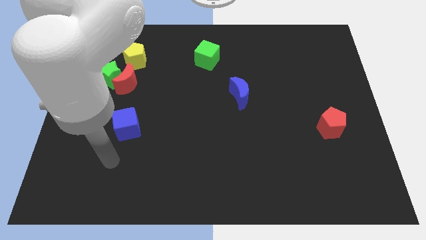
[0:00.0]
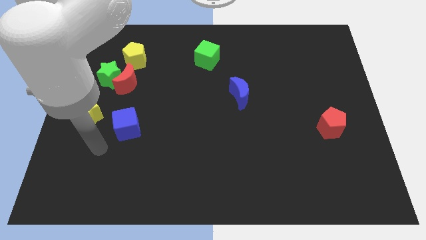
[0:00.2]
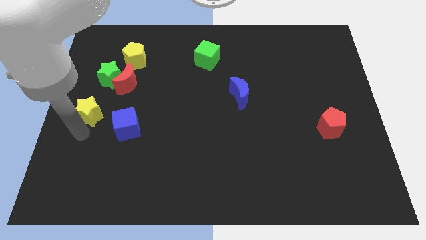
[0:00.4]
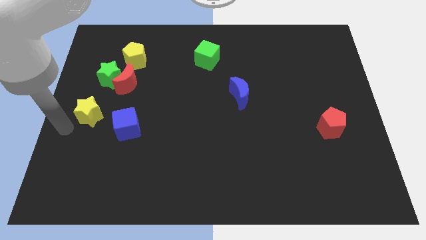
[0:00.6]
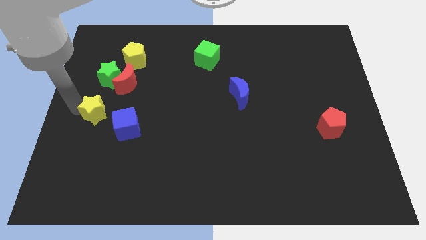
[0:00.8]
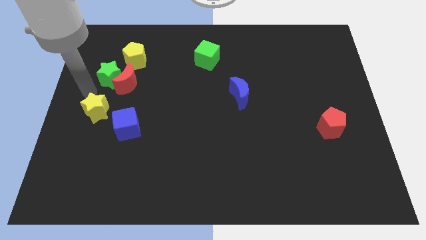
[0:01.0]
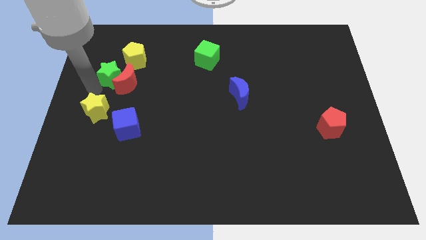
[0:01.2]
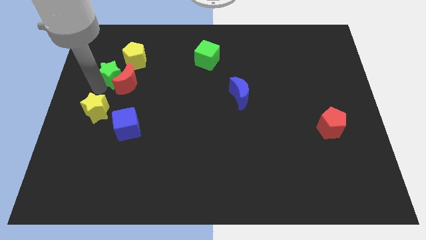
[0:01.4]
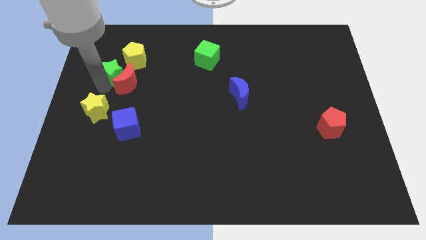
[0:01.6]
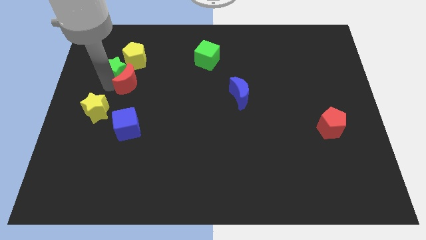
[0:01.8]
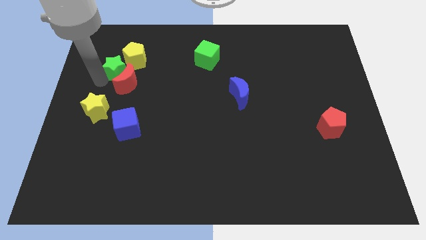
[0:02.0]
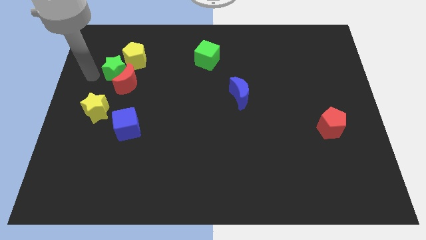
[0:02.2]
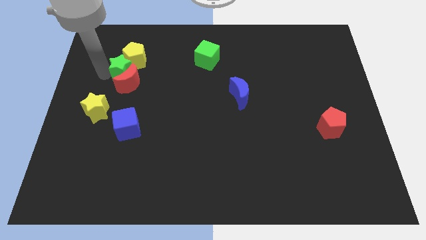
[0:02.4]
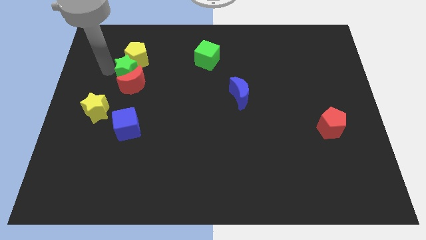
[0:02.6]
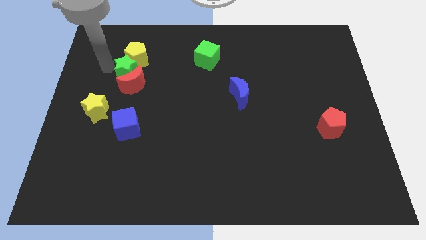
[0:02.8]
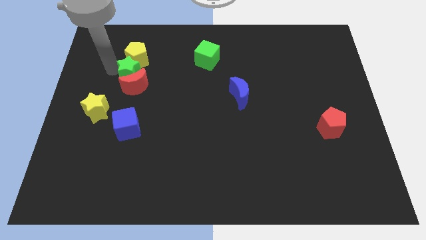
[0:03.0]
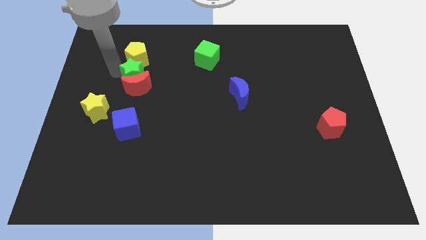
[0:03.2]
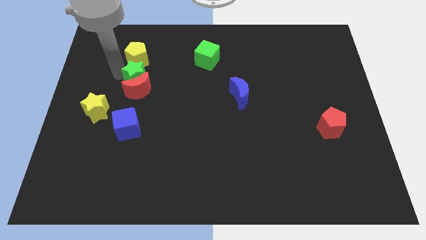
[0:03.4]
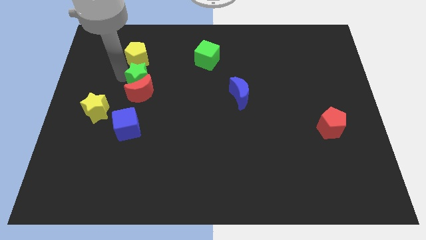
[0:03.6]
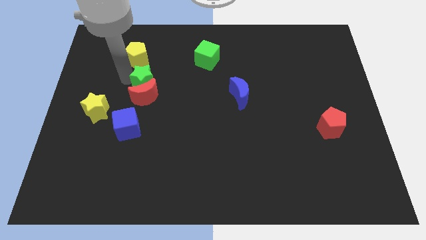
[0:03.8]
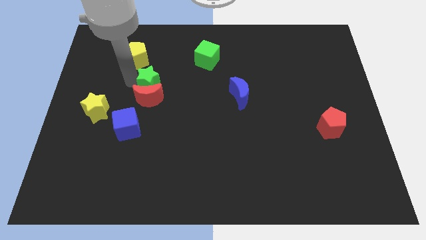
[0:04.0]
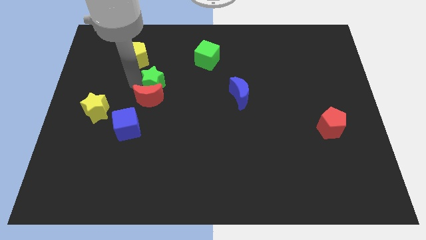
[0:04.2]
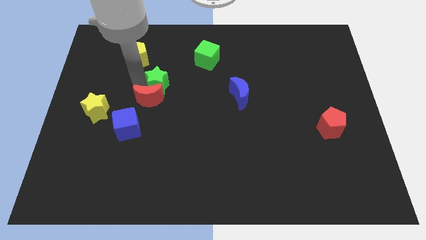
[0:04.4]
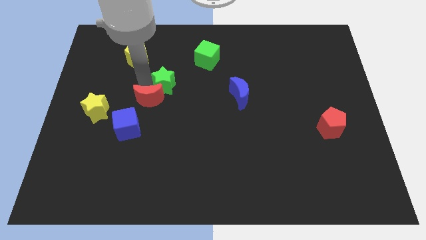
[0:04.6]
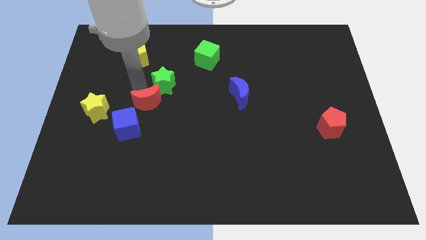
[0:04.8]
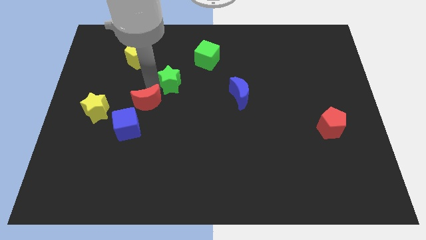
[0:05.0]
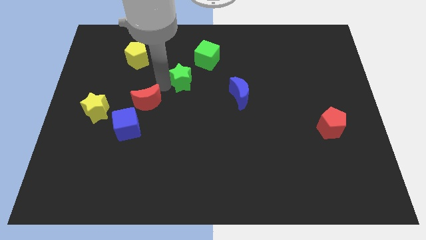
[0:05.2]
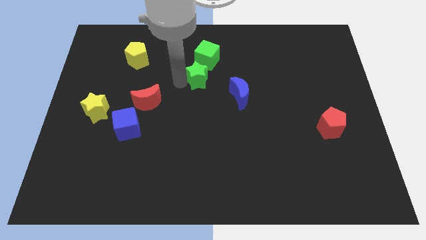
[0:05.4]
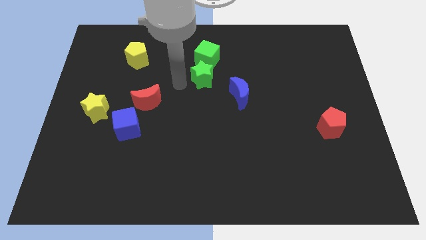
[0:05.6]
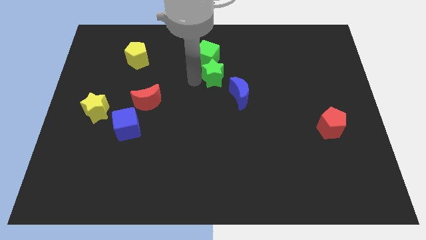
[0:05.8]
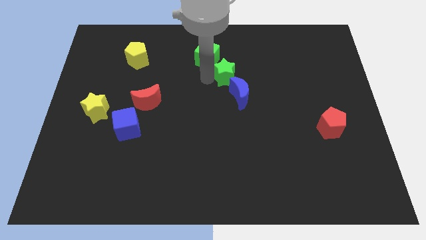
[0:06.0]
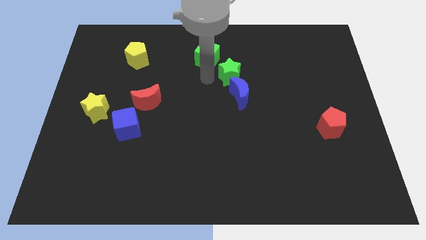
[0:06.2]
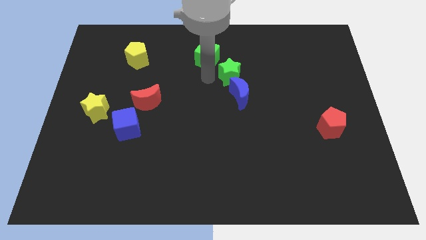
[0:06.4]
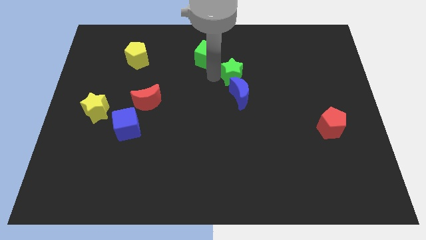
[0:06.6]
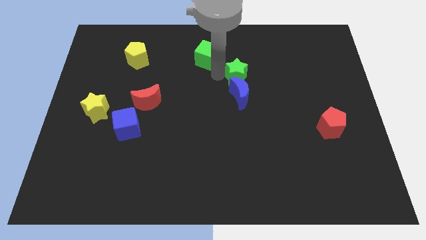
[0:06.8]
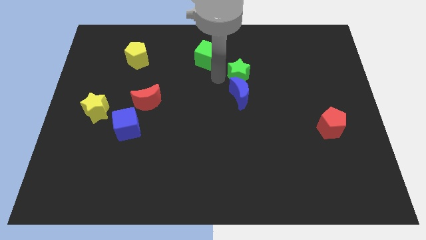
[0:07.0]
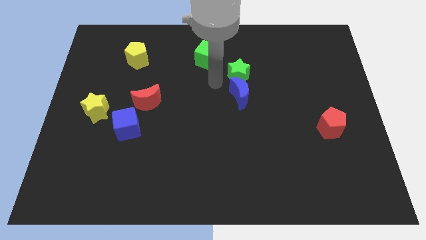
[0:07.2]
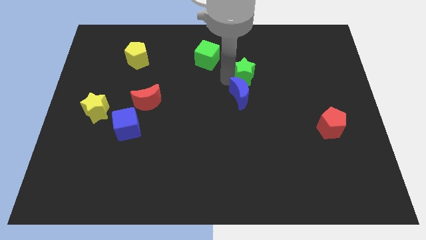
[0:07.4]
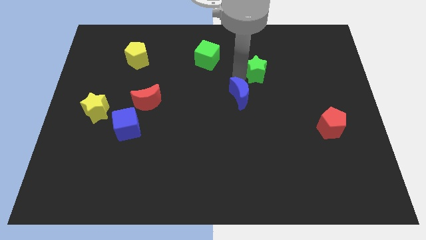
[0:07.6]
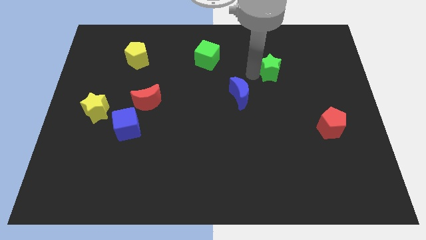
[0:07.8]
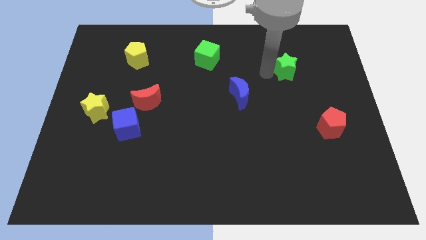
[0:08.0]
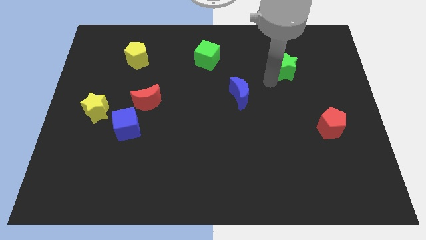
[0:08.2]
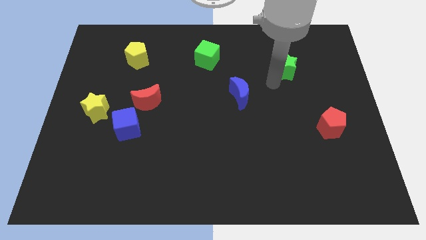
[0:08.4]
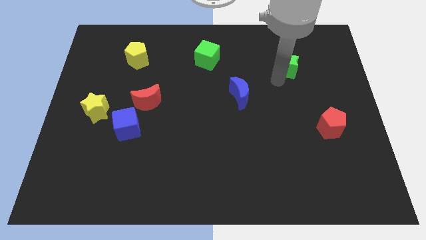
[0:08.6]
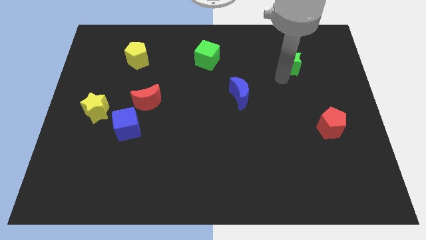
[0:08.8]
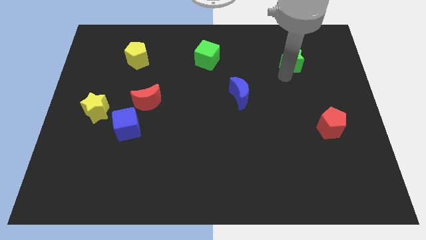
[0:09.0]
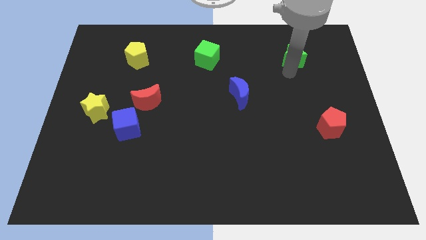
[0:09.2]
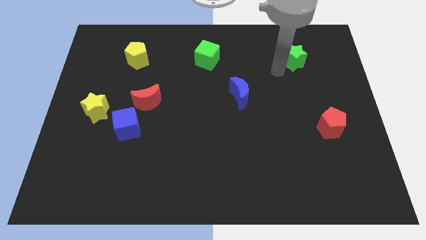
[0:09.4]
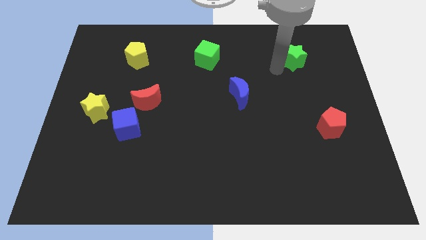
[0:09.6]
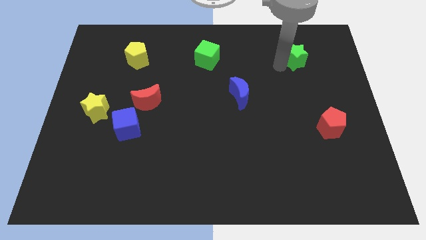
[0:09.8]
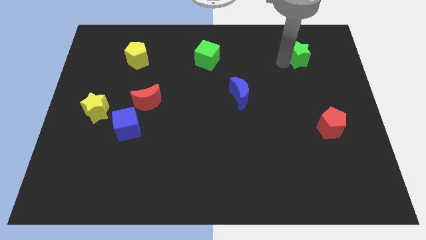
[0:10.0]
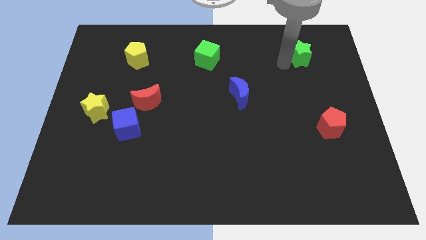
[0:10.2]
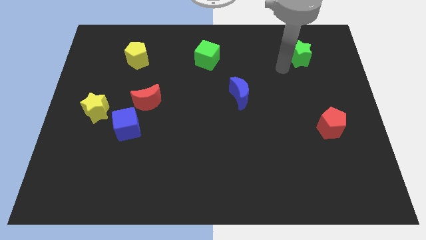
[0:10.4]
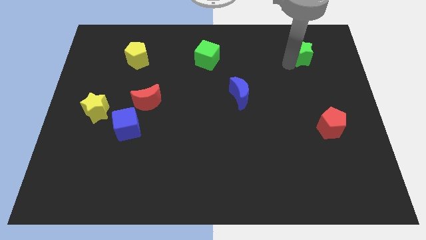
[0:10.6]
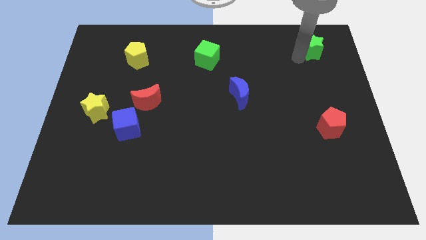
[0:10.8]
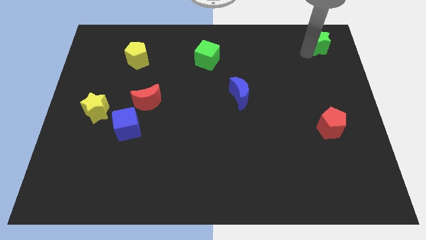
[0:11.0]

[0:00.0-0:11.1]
put the green star to the top right

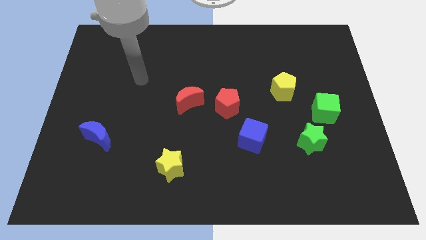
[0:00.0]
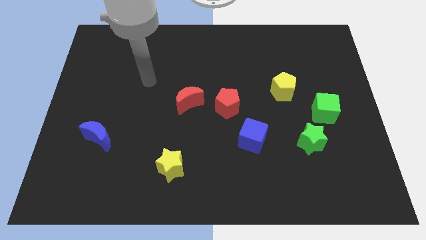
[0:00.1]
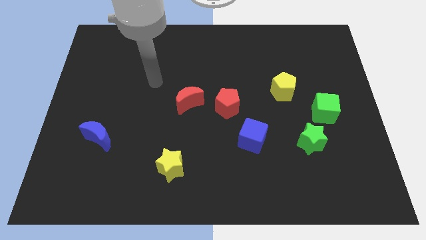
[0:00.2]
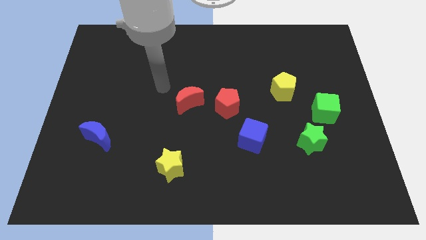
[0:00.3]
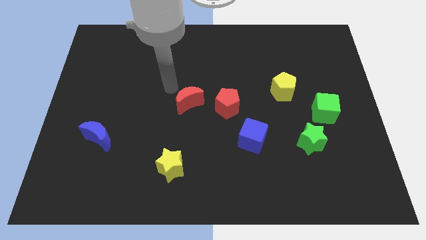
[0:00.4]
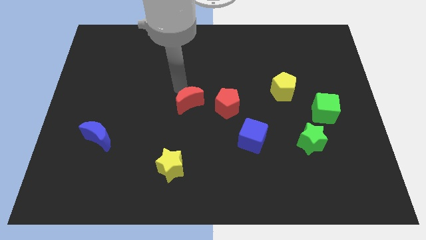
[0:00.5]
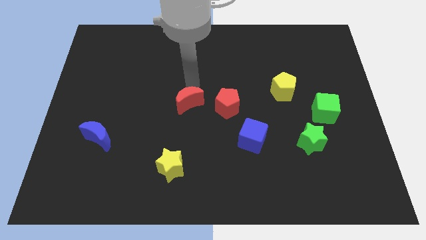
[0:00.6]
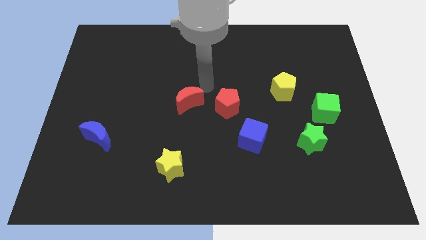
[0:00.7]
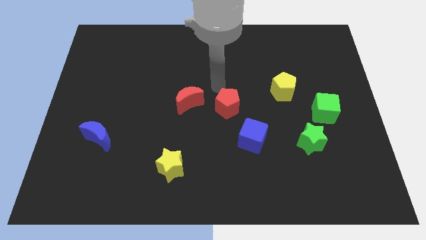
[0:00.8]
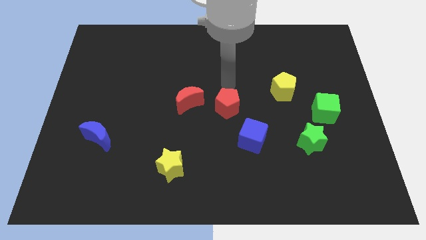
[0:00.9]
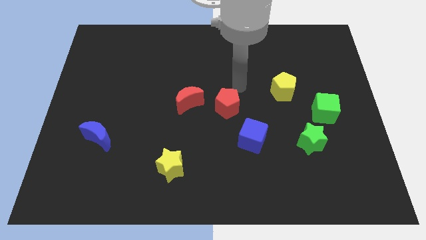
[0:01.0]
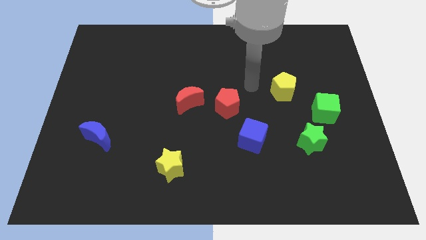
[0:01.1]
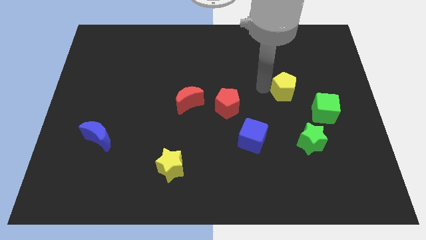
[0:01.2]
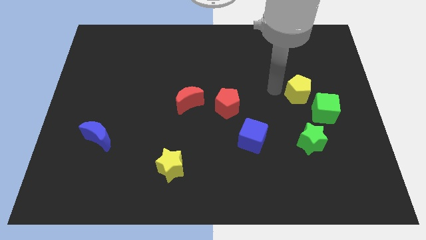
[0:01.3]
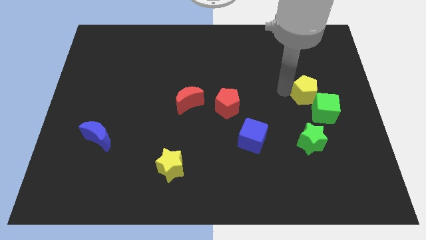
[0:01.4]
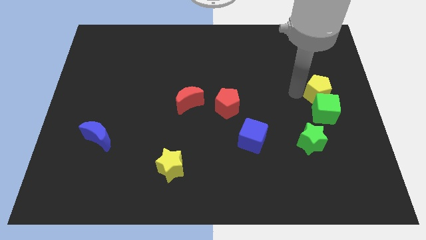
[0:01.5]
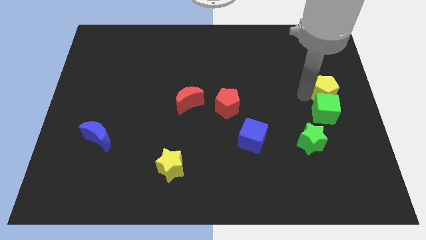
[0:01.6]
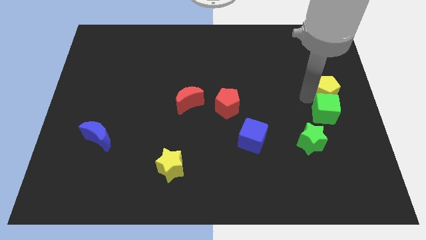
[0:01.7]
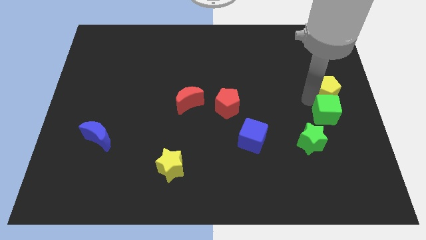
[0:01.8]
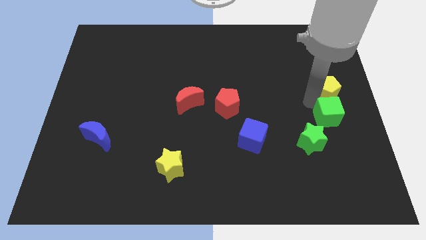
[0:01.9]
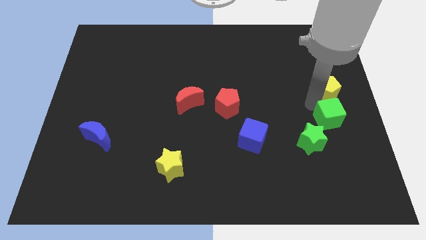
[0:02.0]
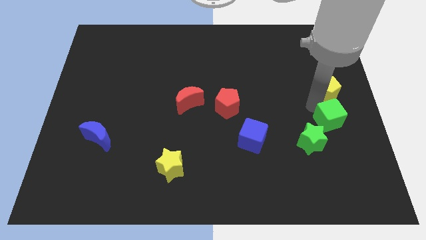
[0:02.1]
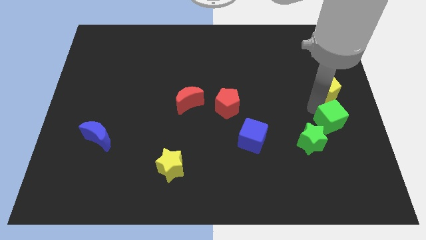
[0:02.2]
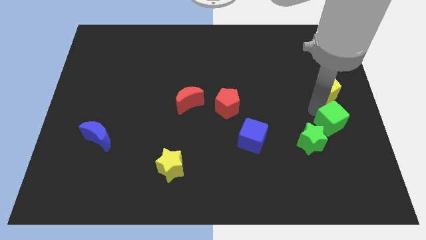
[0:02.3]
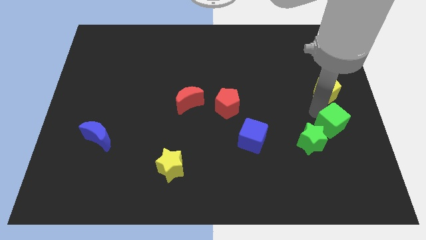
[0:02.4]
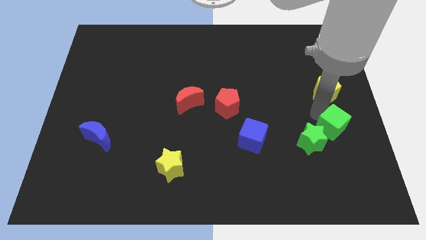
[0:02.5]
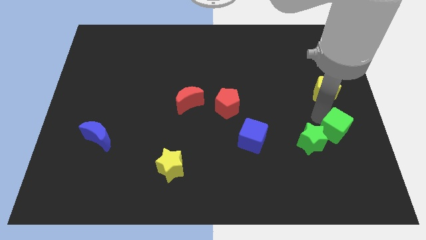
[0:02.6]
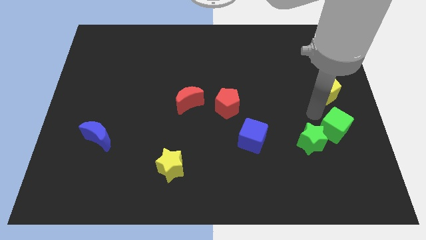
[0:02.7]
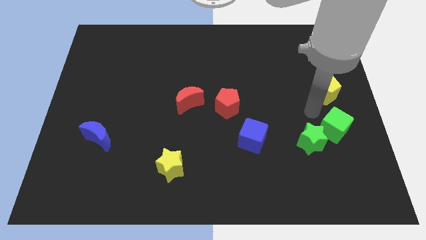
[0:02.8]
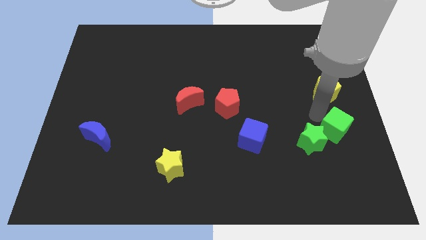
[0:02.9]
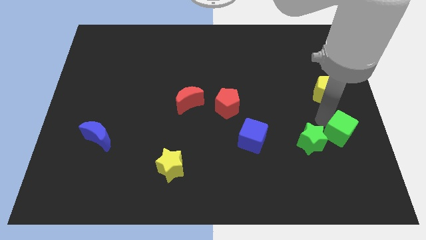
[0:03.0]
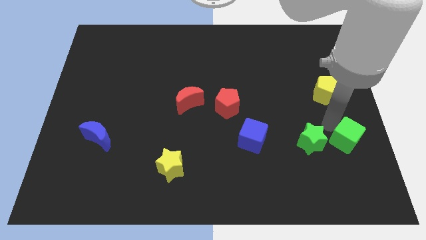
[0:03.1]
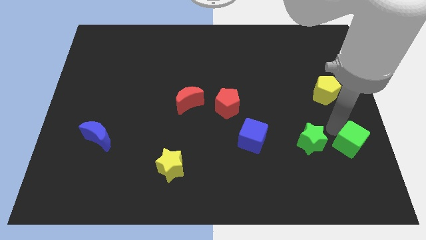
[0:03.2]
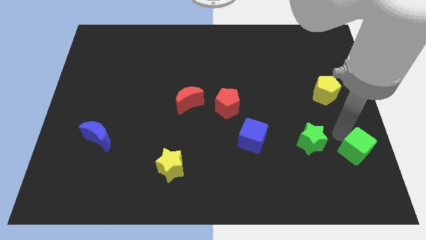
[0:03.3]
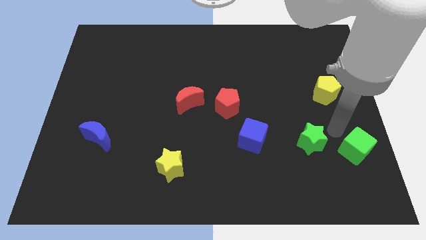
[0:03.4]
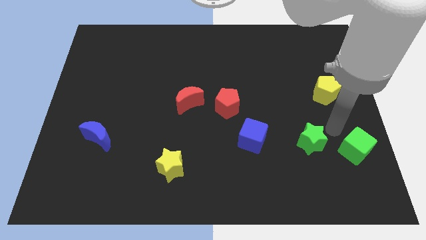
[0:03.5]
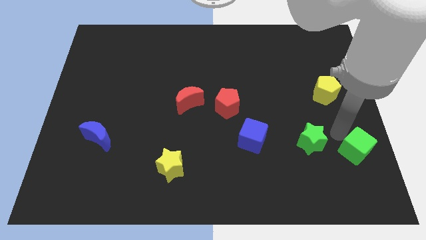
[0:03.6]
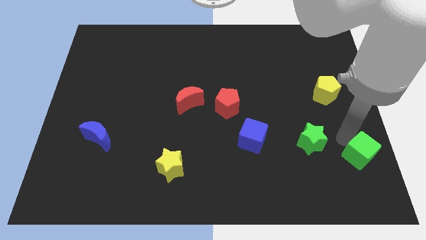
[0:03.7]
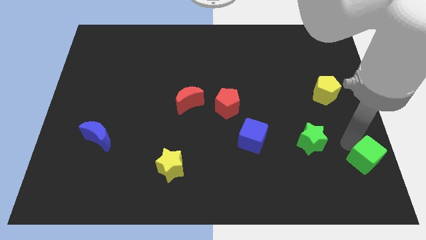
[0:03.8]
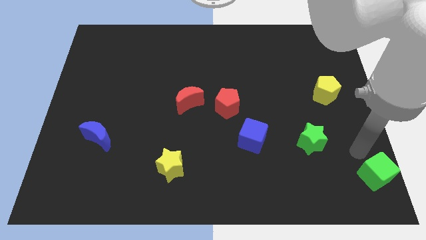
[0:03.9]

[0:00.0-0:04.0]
put the green cube to the bottom right
